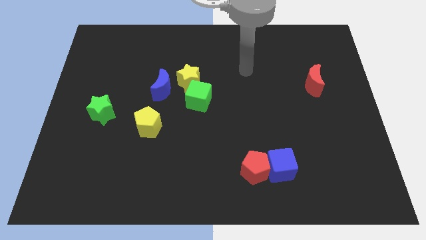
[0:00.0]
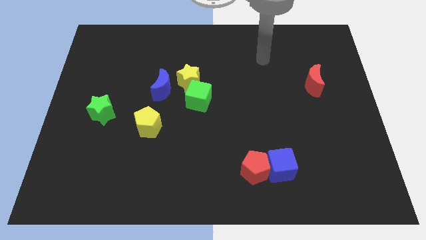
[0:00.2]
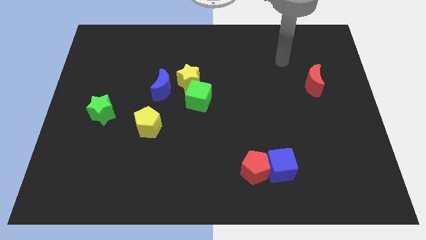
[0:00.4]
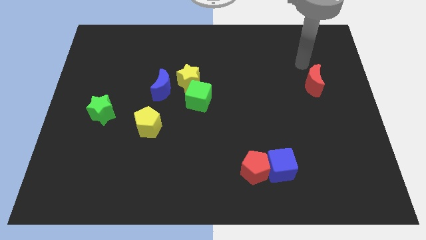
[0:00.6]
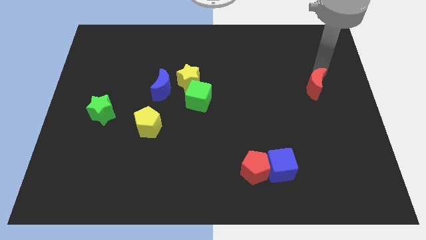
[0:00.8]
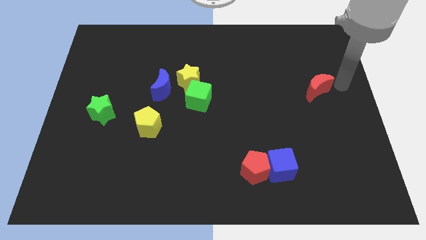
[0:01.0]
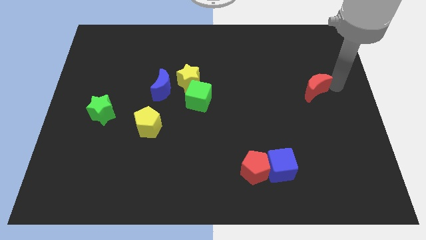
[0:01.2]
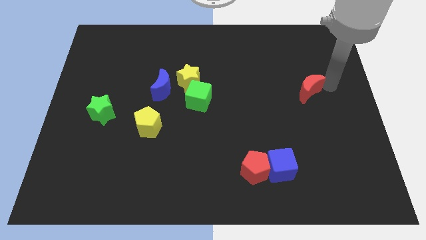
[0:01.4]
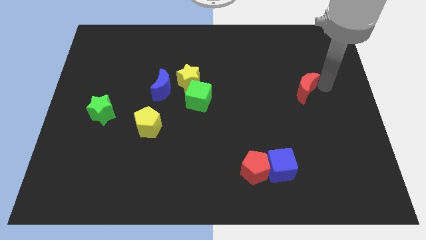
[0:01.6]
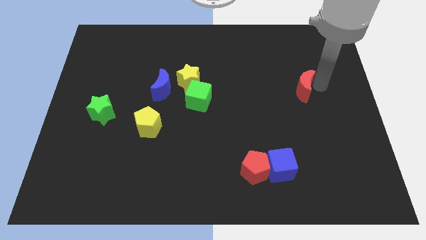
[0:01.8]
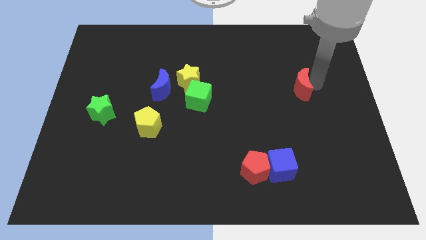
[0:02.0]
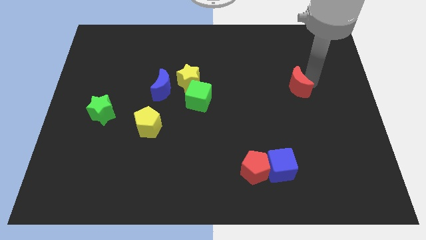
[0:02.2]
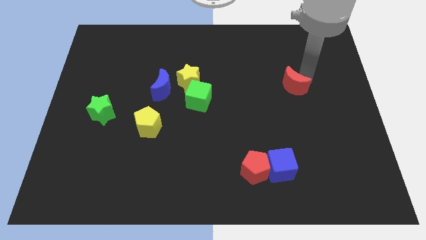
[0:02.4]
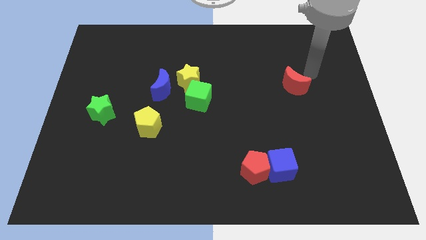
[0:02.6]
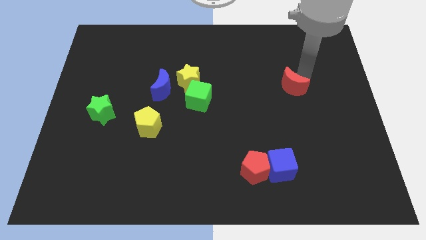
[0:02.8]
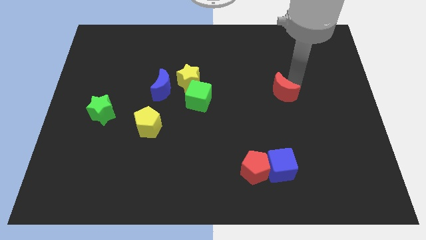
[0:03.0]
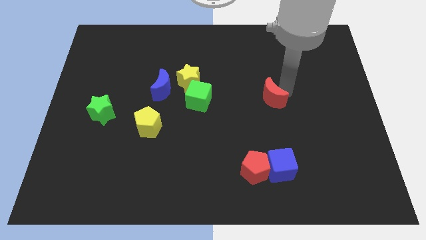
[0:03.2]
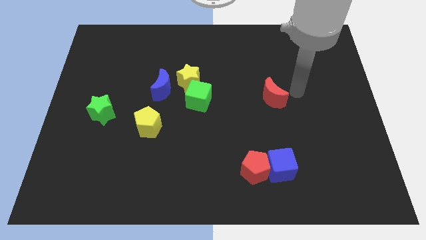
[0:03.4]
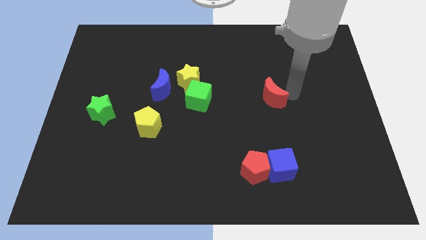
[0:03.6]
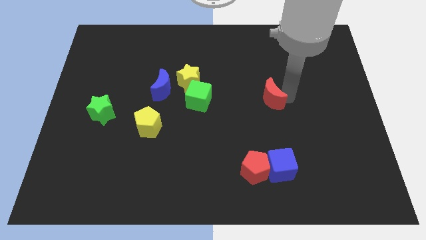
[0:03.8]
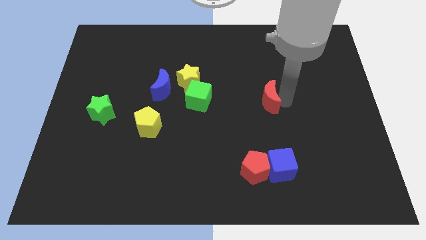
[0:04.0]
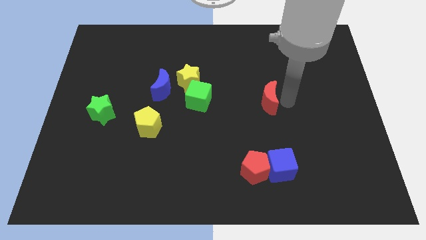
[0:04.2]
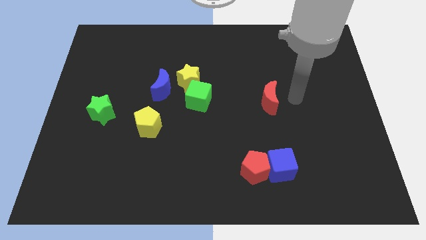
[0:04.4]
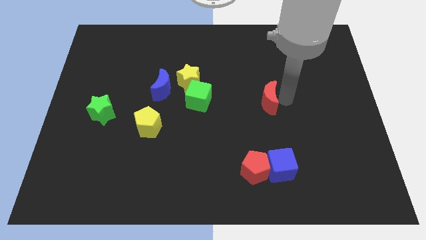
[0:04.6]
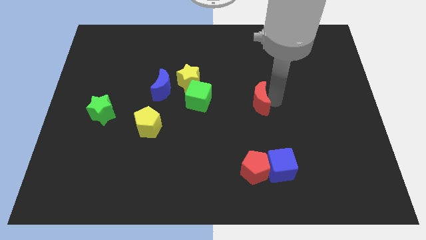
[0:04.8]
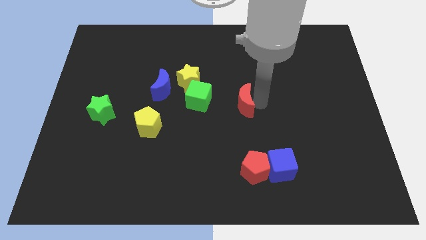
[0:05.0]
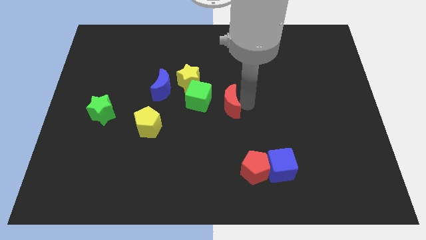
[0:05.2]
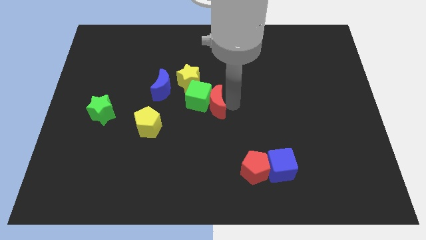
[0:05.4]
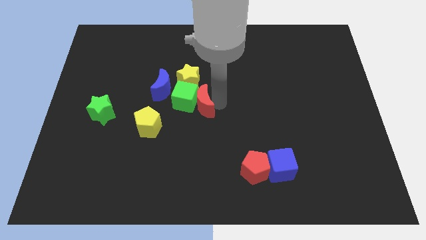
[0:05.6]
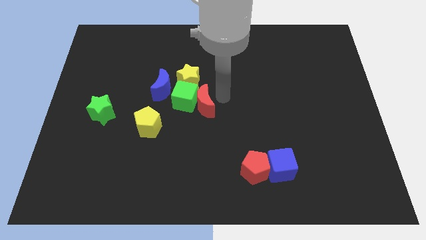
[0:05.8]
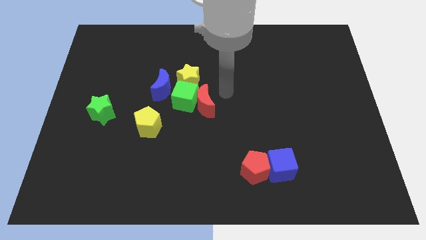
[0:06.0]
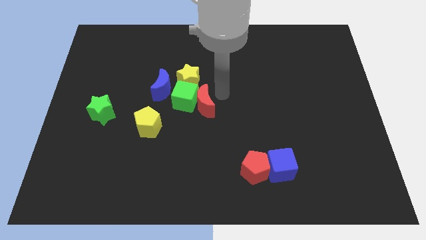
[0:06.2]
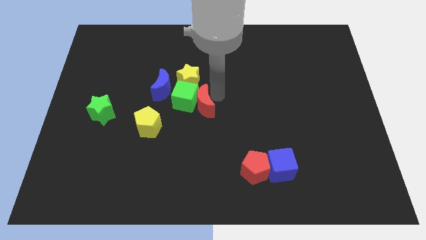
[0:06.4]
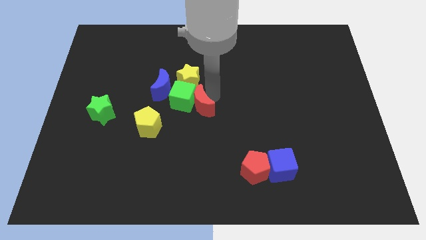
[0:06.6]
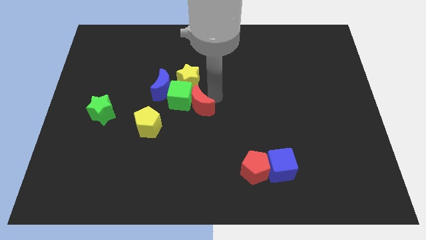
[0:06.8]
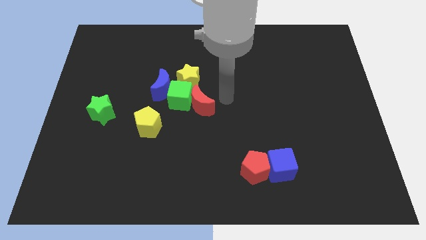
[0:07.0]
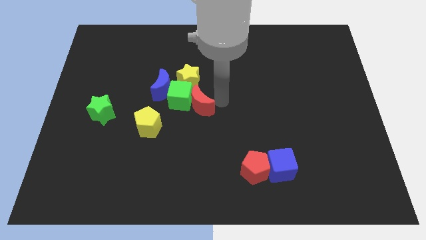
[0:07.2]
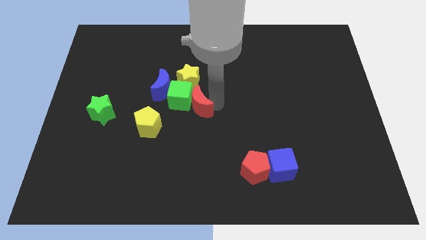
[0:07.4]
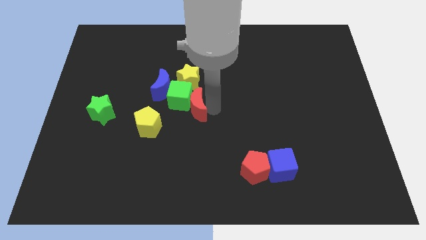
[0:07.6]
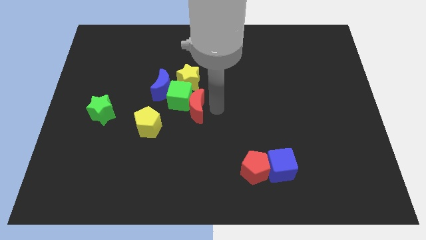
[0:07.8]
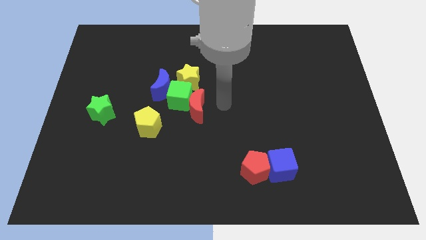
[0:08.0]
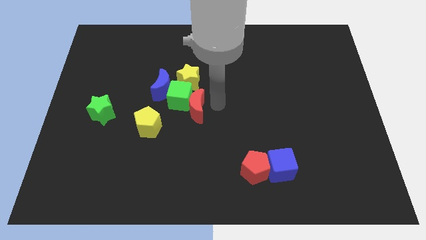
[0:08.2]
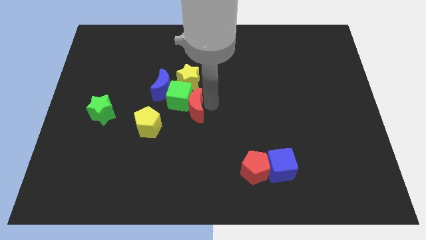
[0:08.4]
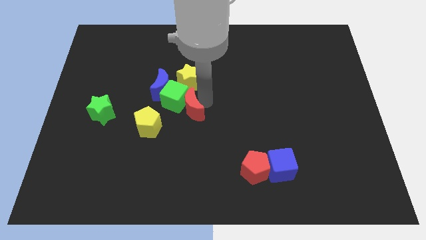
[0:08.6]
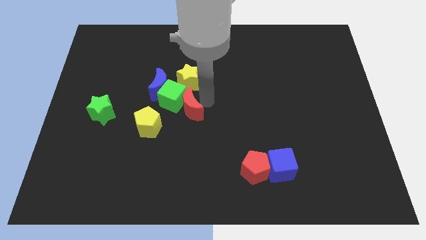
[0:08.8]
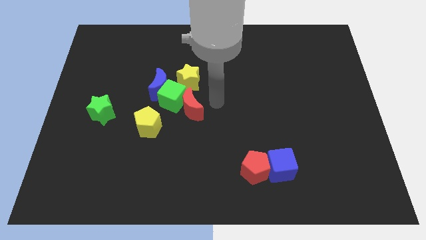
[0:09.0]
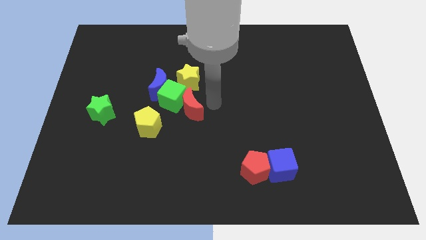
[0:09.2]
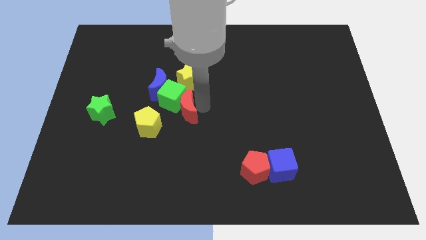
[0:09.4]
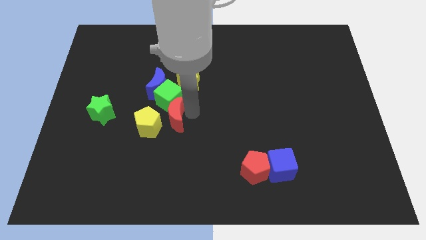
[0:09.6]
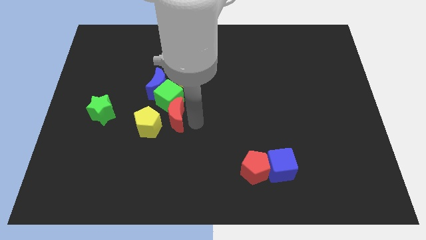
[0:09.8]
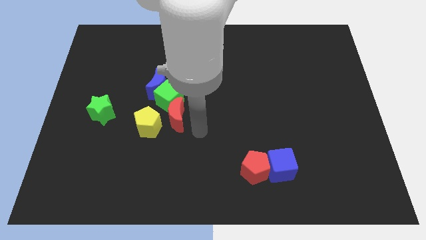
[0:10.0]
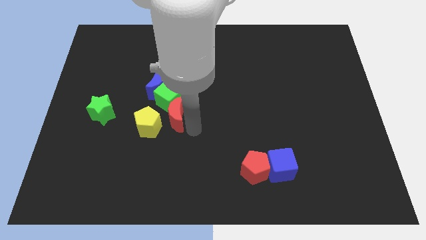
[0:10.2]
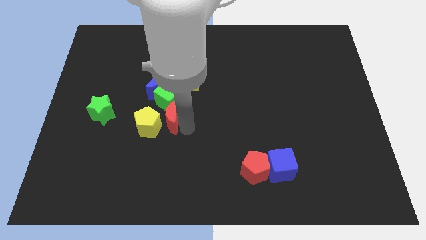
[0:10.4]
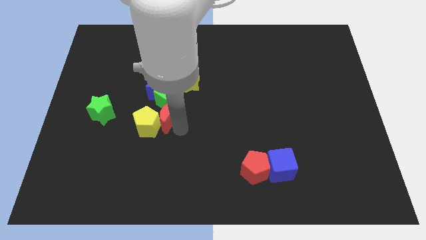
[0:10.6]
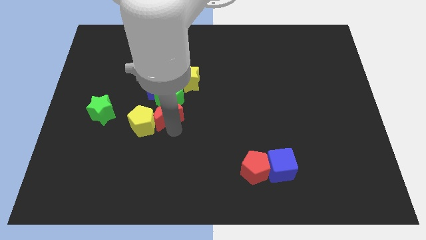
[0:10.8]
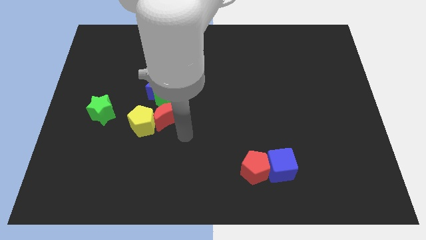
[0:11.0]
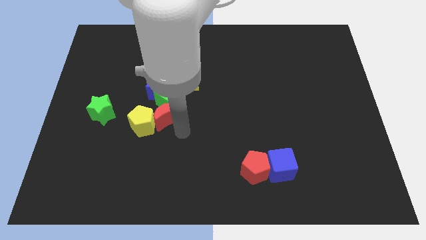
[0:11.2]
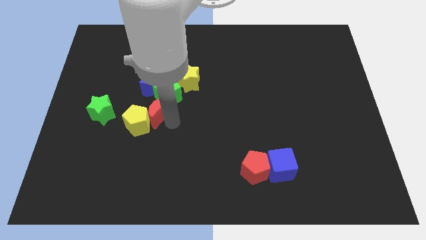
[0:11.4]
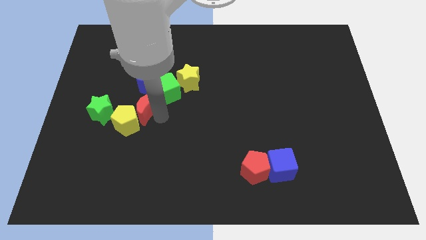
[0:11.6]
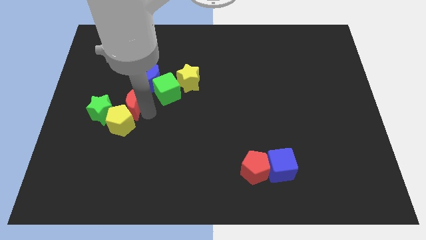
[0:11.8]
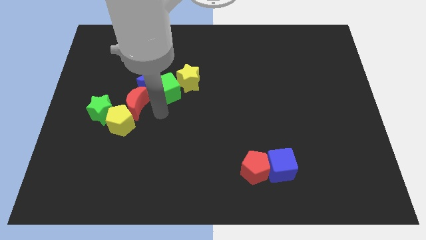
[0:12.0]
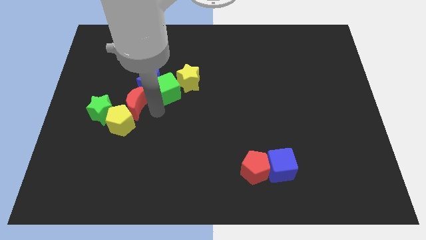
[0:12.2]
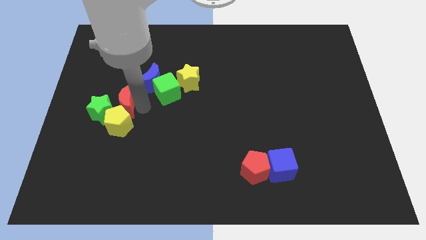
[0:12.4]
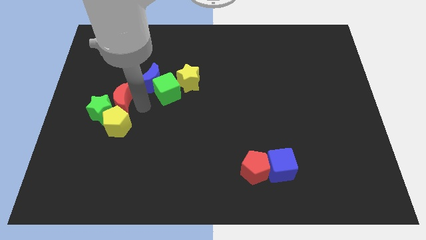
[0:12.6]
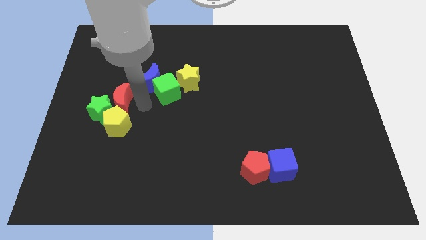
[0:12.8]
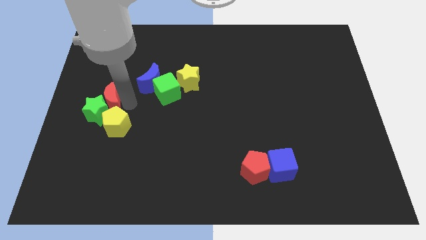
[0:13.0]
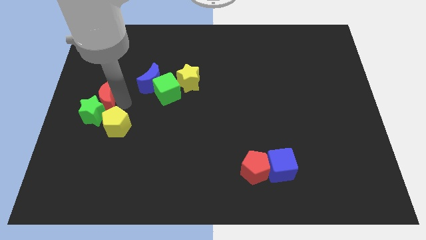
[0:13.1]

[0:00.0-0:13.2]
put the red moon to the center left

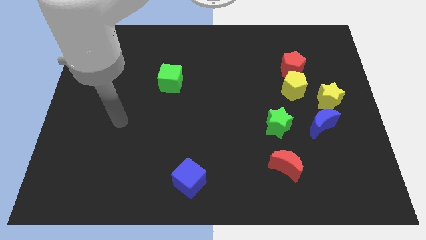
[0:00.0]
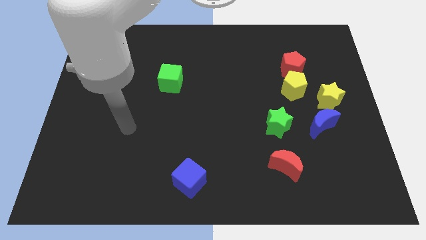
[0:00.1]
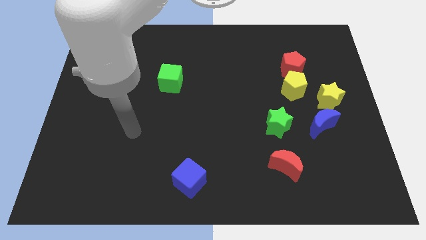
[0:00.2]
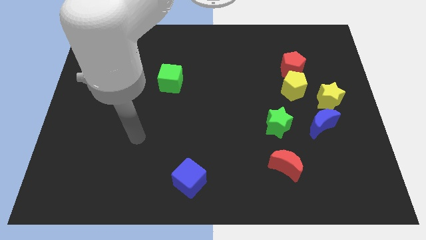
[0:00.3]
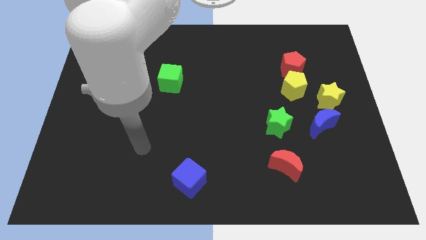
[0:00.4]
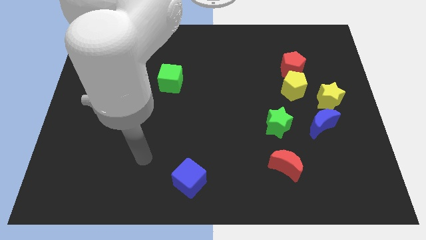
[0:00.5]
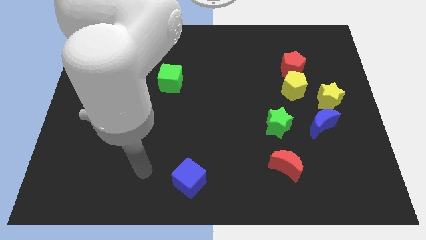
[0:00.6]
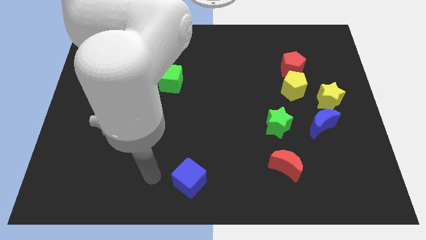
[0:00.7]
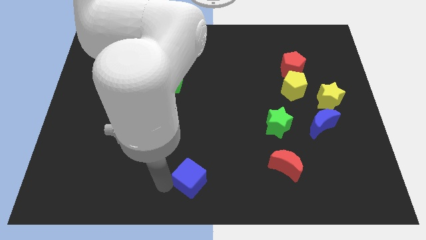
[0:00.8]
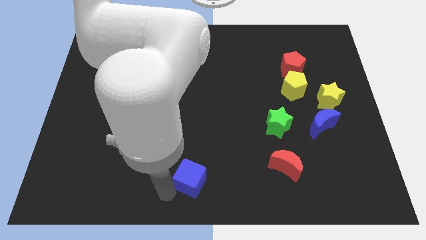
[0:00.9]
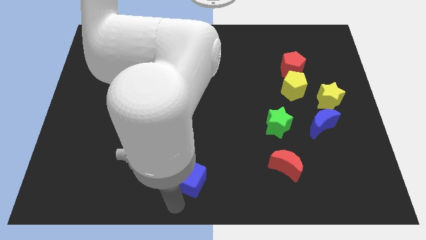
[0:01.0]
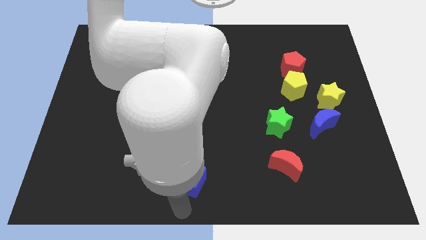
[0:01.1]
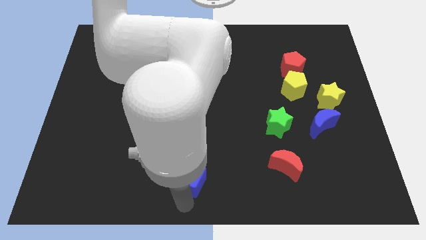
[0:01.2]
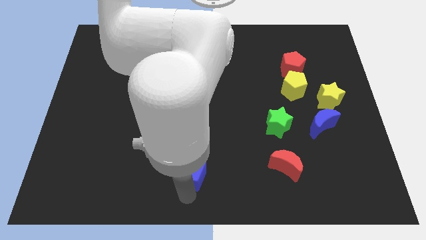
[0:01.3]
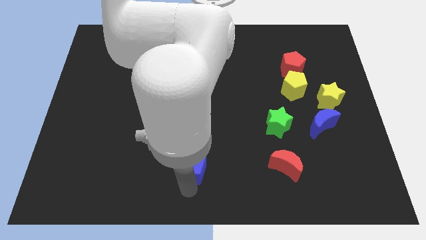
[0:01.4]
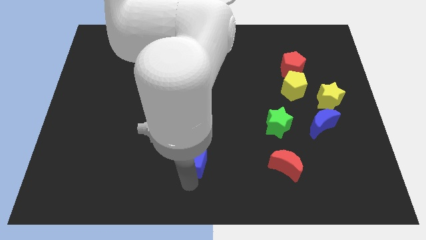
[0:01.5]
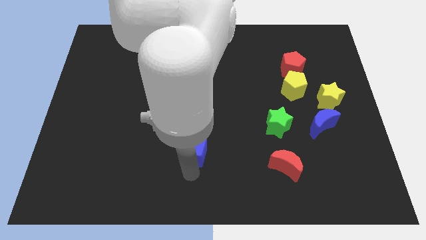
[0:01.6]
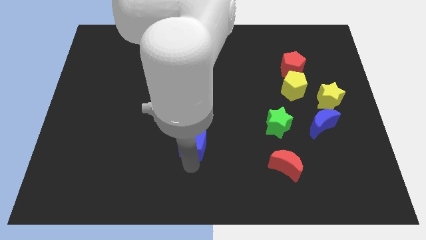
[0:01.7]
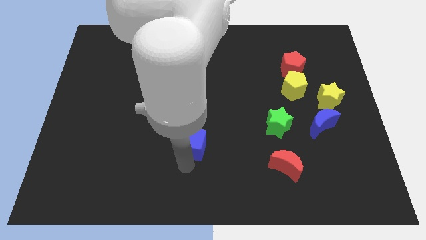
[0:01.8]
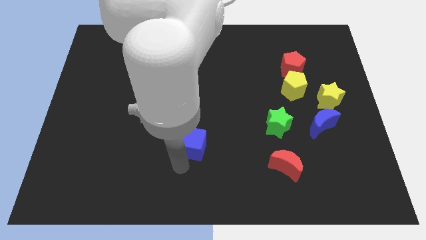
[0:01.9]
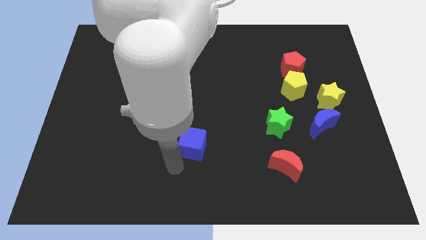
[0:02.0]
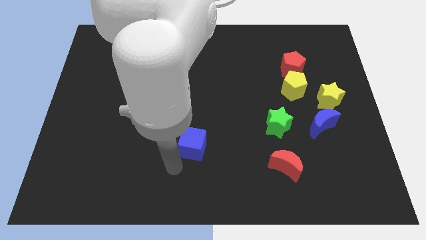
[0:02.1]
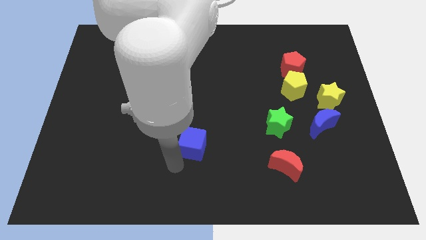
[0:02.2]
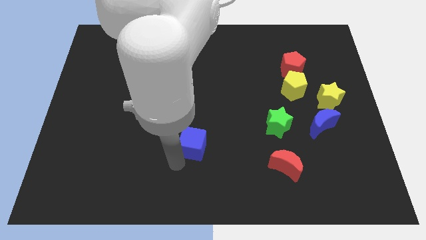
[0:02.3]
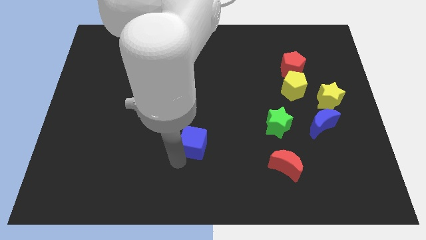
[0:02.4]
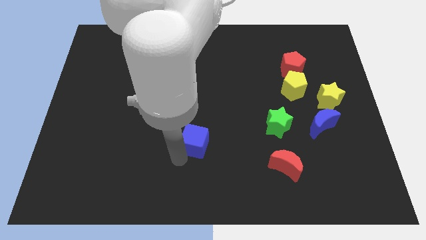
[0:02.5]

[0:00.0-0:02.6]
put the blue cube to the center
